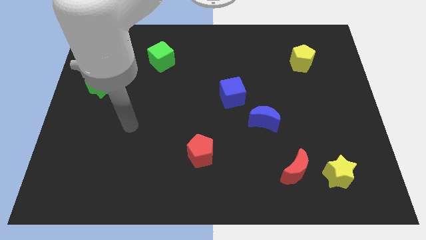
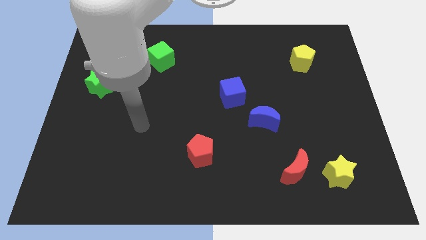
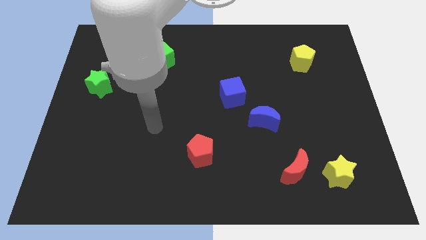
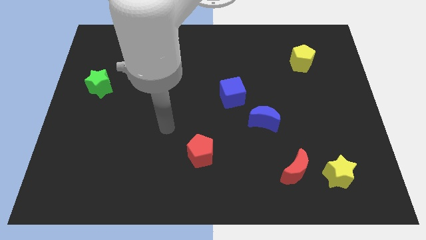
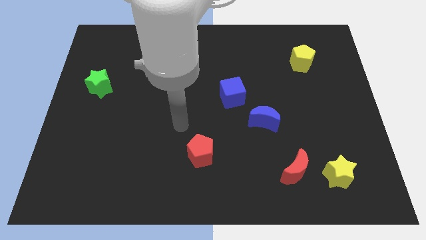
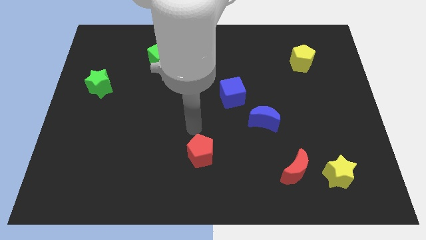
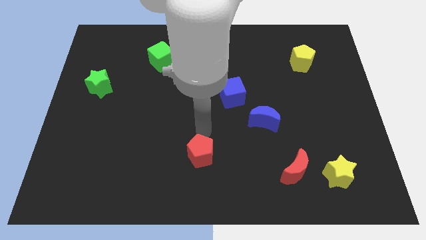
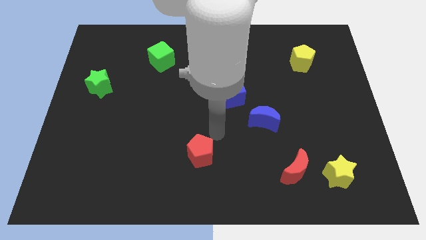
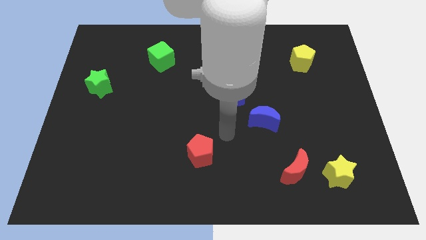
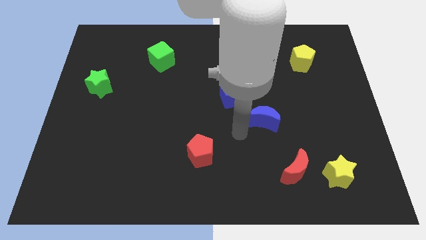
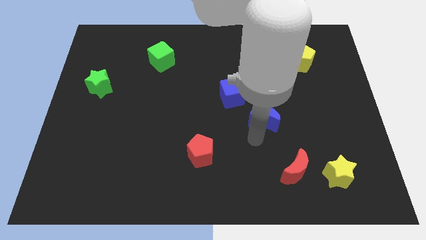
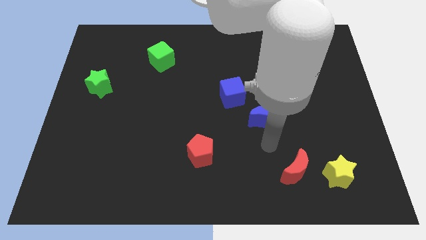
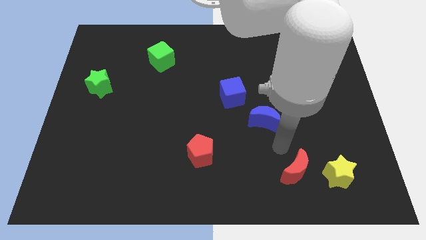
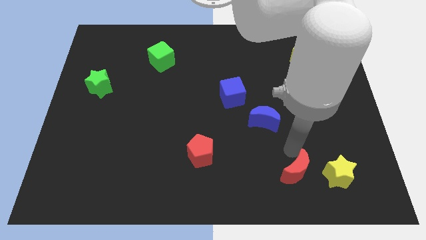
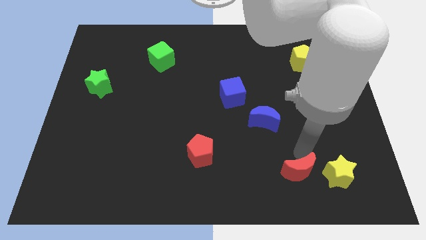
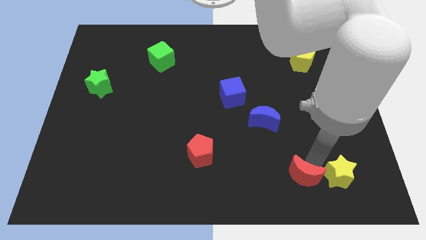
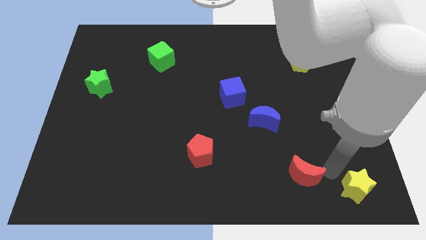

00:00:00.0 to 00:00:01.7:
separate the red moon from the yellow star

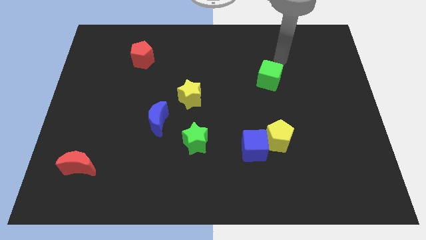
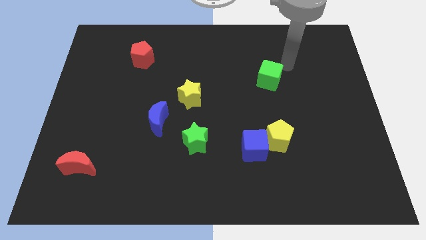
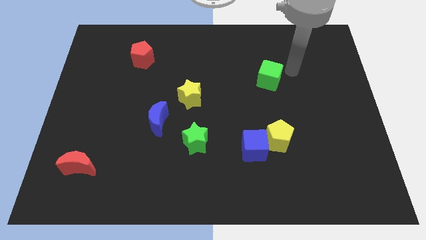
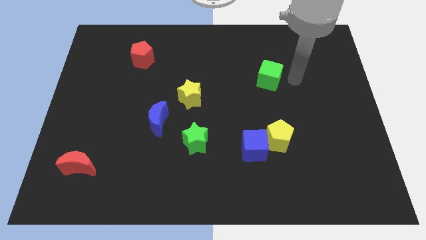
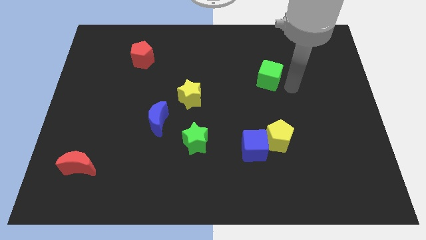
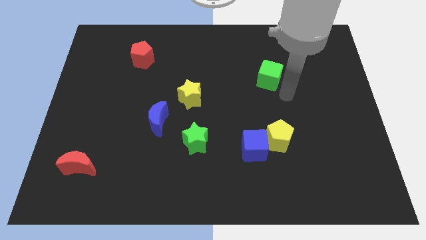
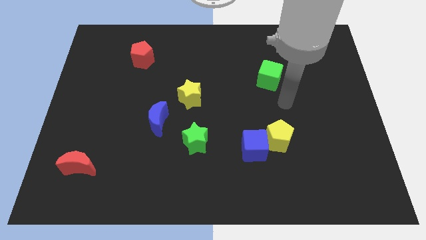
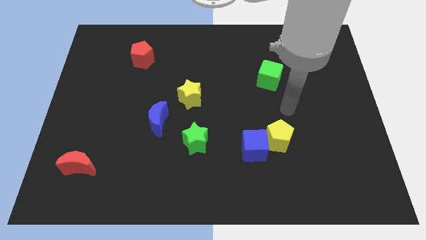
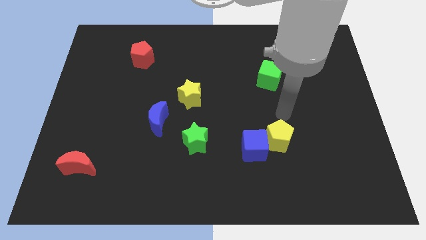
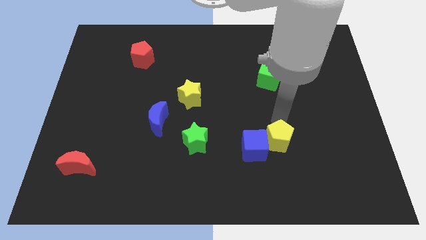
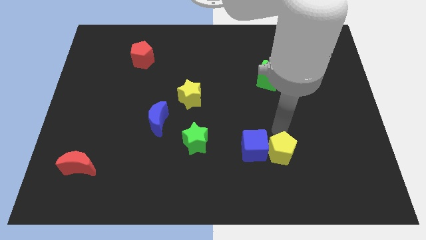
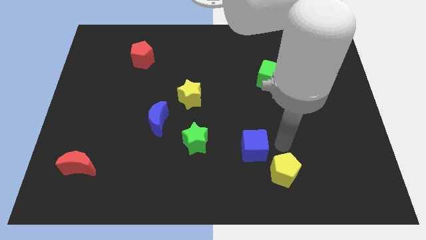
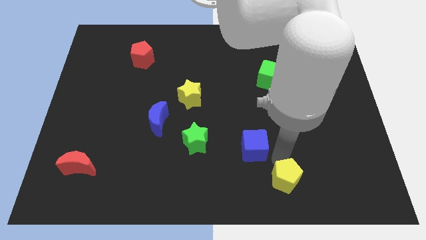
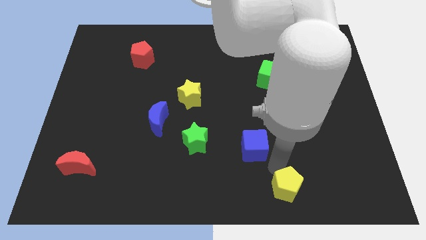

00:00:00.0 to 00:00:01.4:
pull the blue cube apart from the yellow pentagon

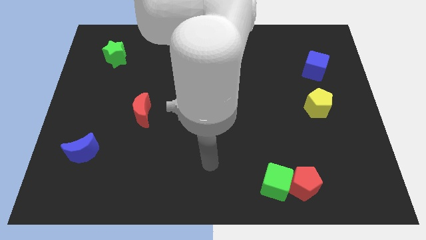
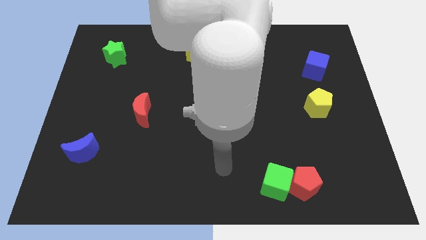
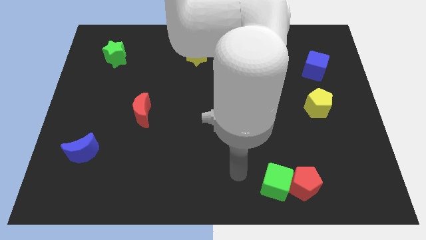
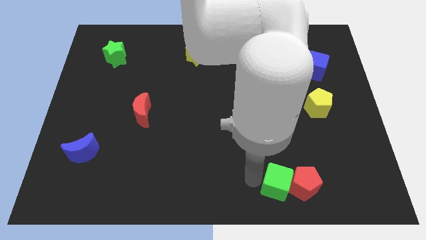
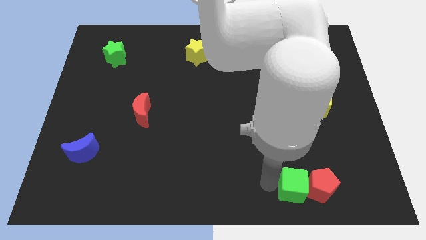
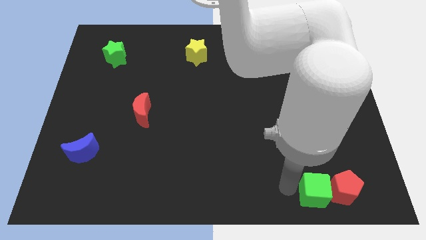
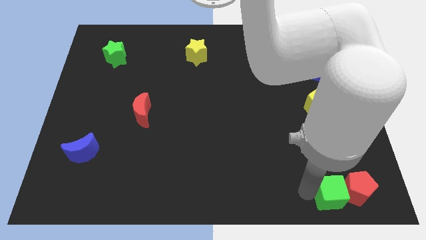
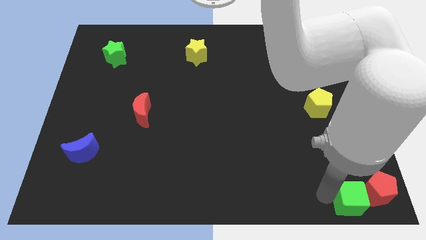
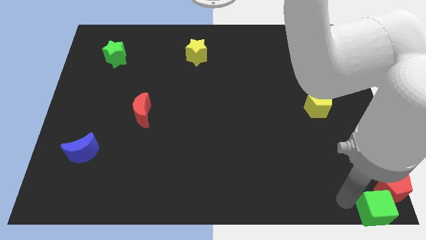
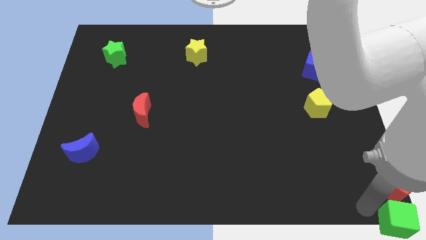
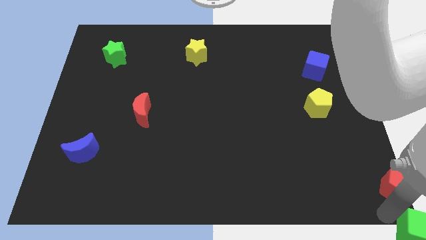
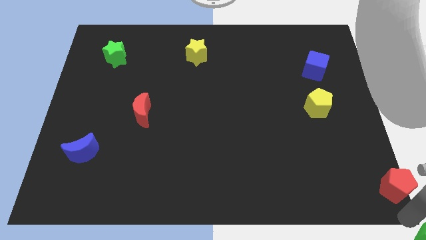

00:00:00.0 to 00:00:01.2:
move the red pentagon away from the green cube

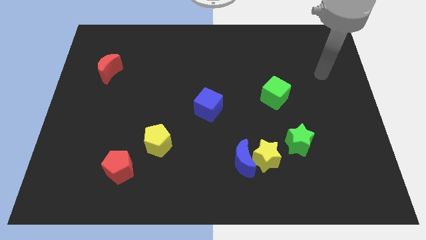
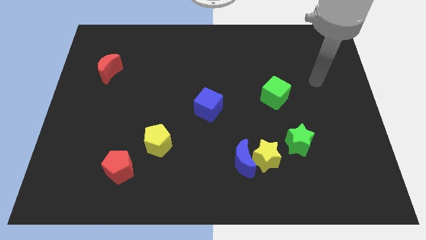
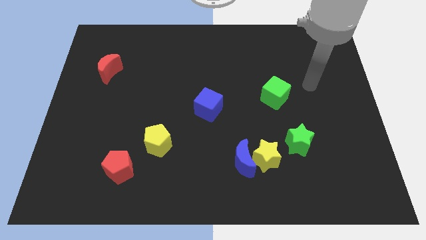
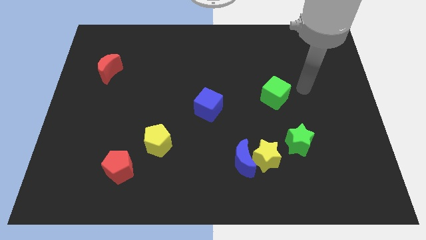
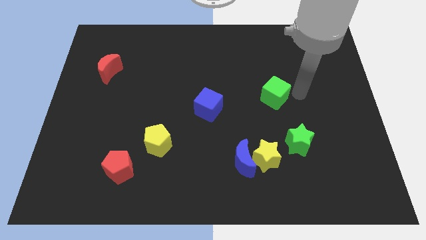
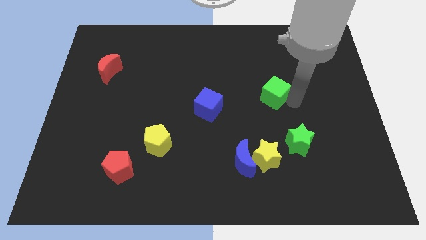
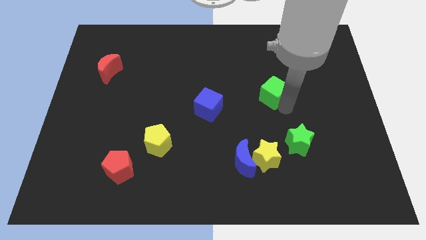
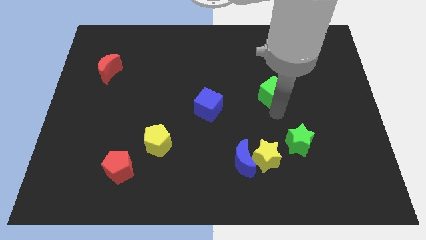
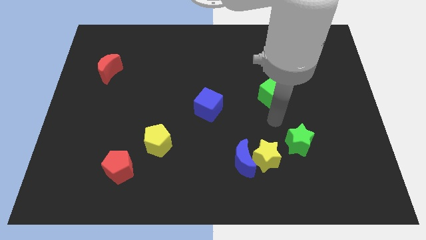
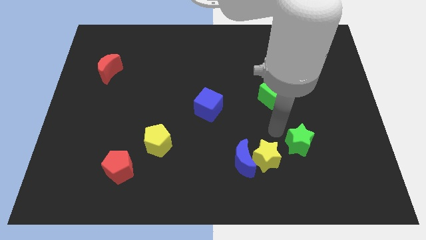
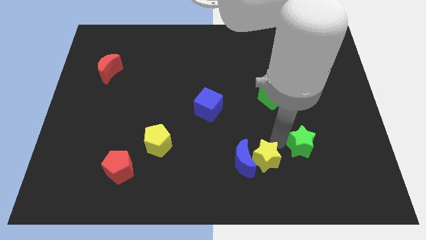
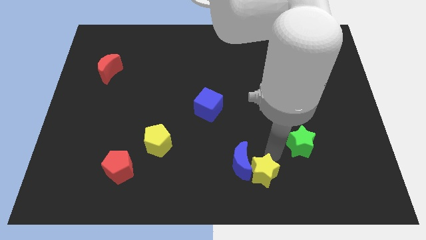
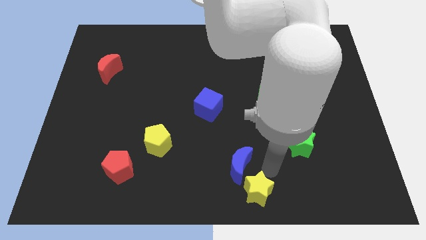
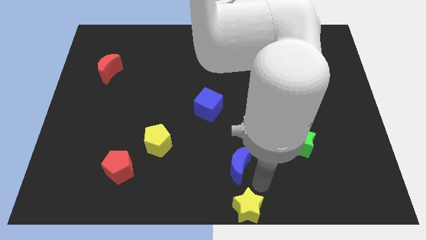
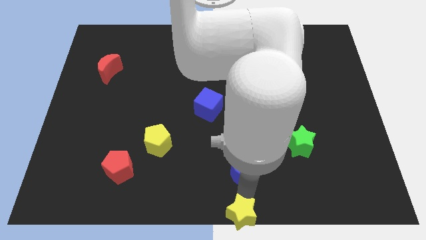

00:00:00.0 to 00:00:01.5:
separate the blue moon from the yellow star

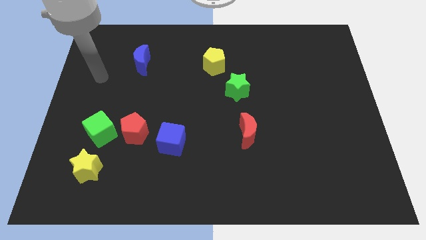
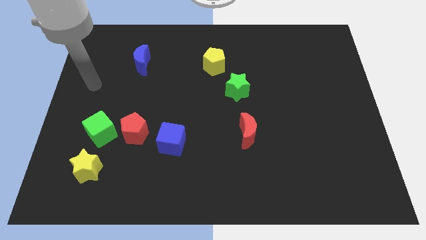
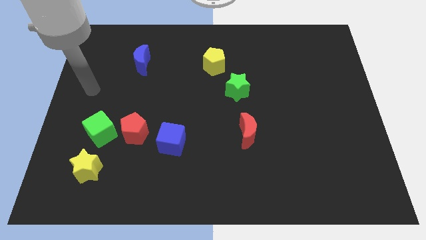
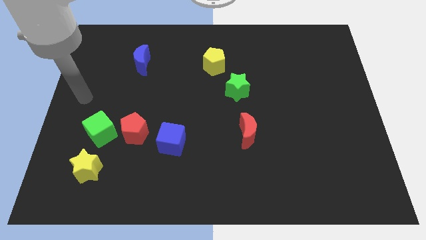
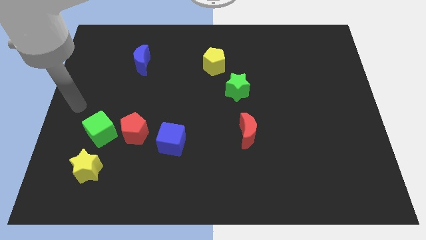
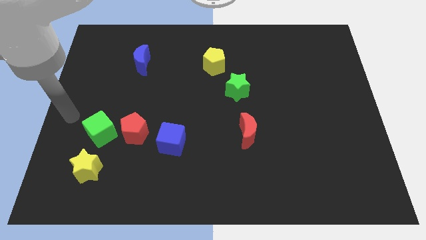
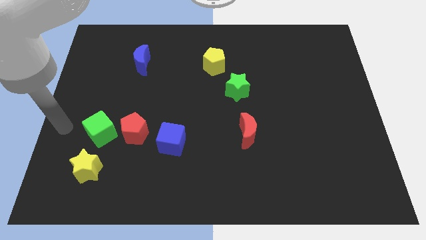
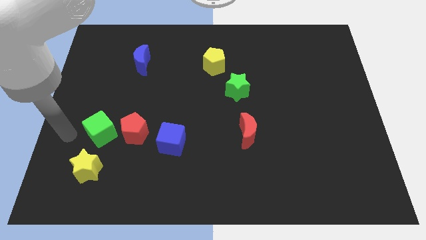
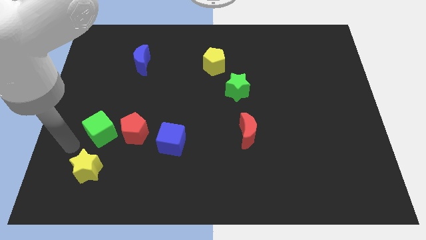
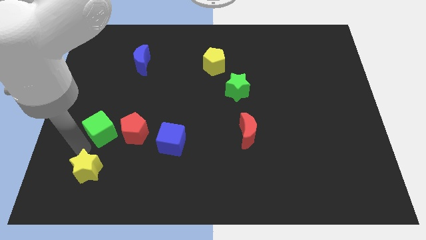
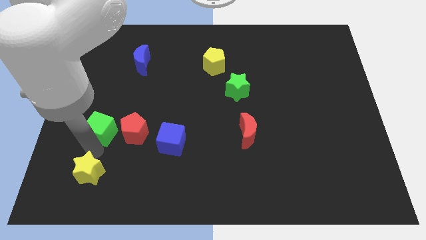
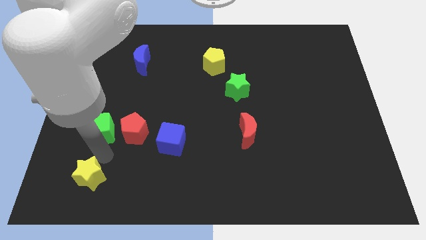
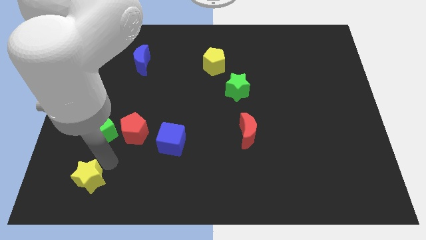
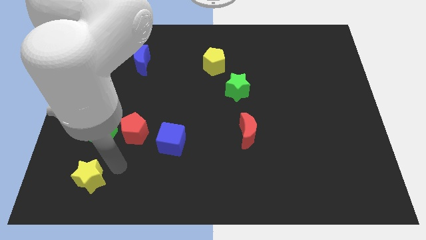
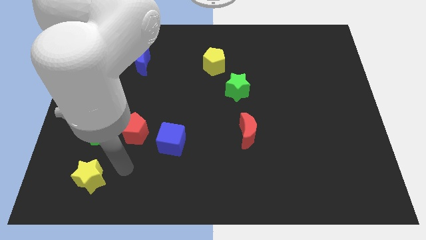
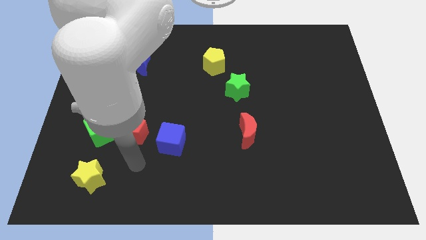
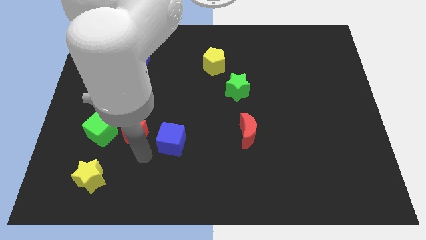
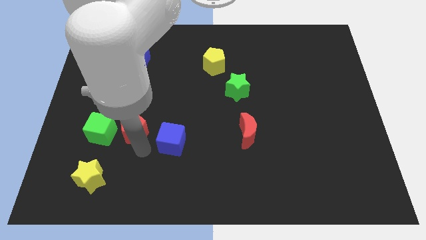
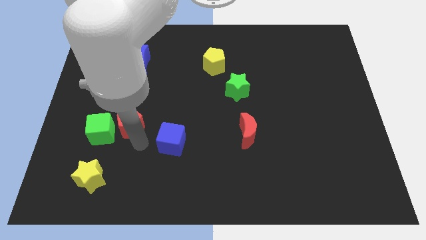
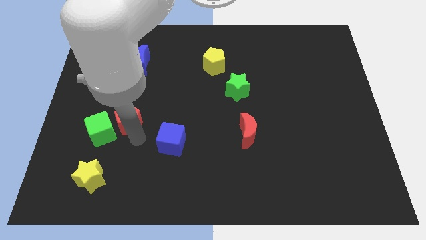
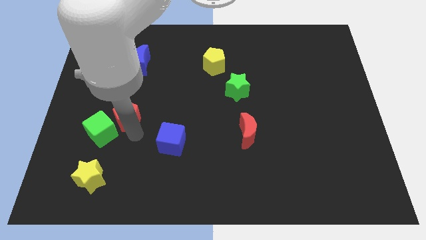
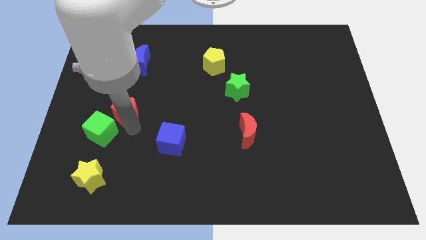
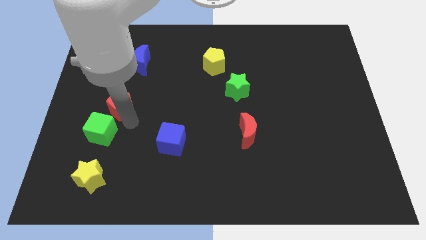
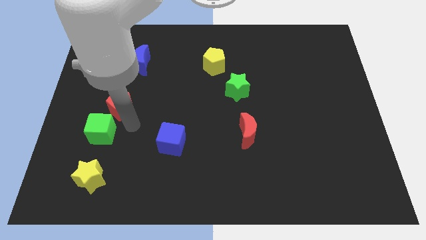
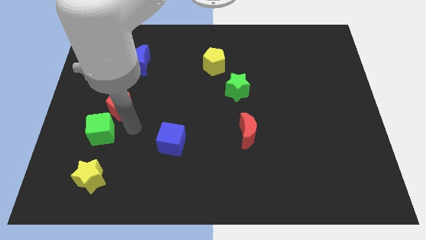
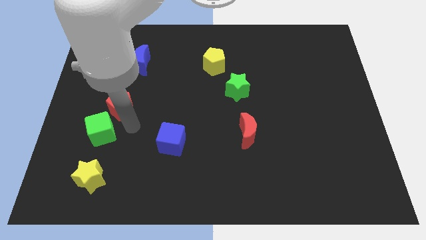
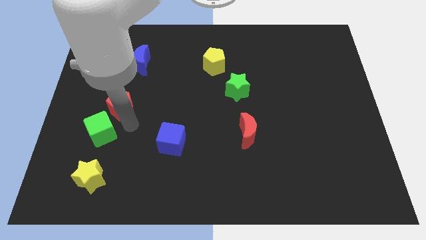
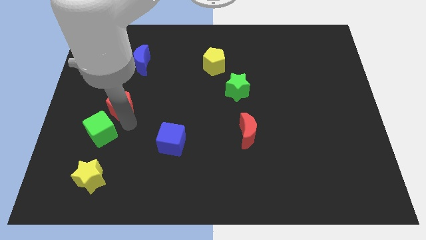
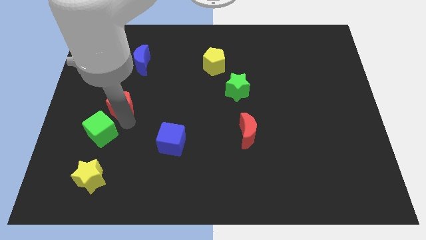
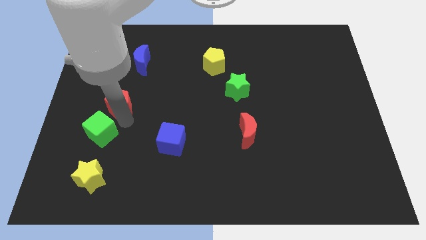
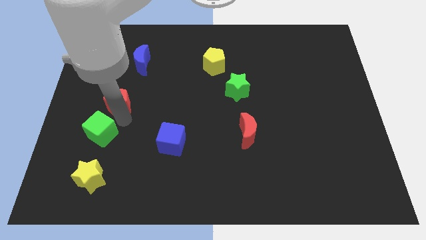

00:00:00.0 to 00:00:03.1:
move the red pentagon away from the green cube and blue cube

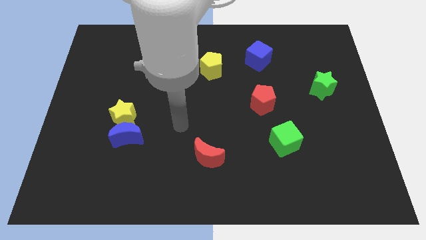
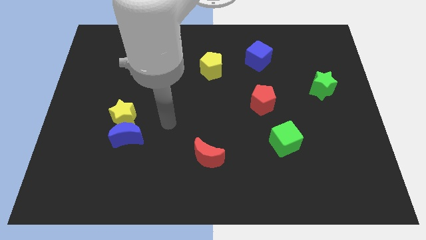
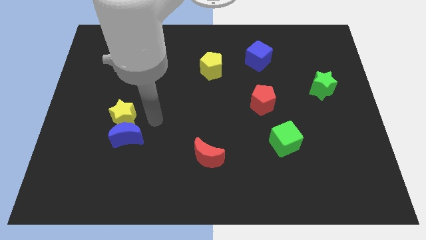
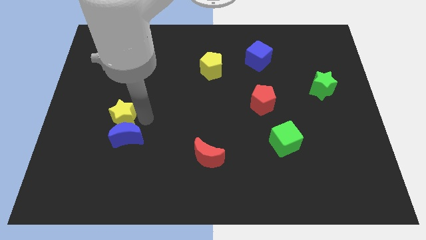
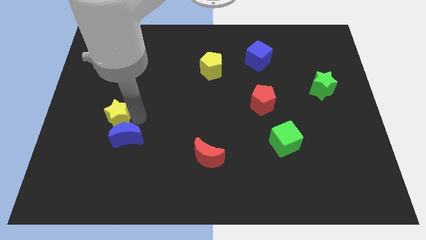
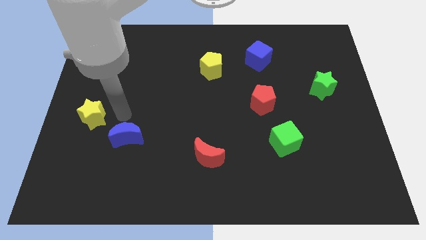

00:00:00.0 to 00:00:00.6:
move the blue moon away from the yellow star
